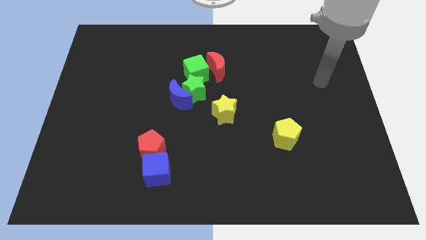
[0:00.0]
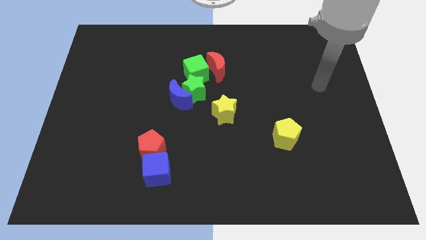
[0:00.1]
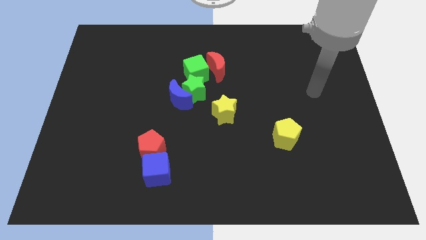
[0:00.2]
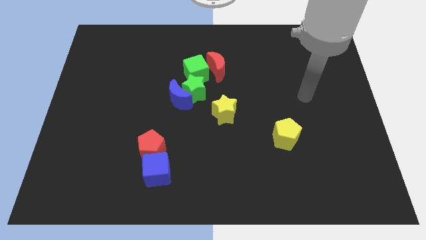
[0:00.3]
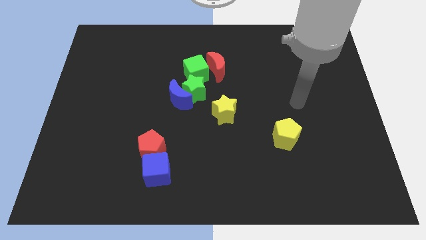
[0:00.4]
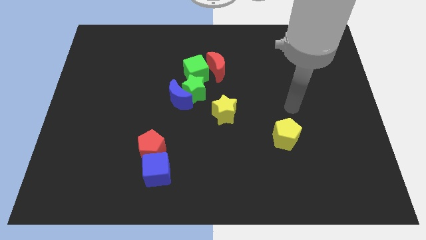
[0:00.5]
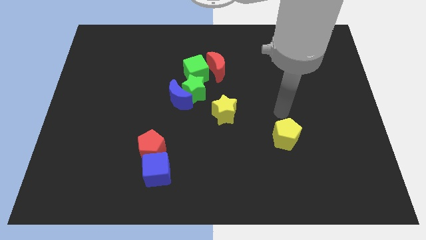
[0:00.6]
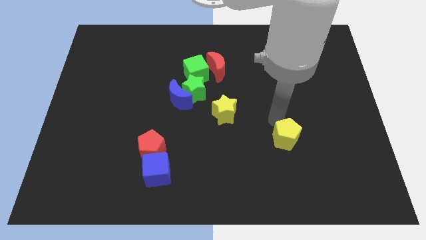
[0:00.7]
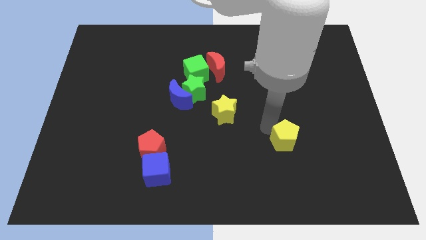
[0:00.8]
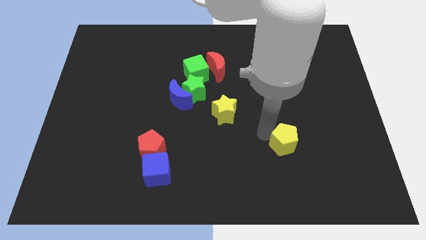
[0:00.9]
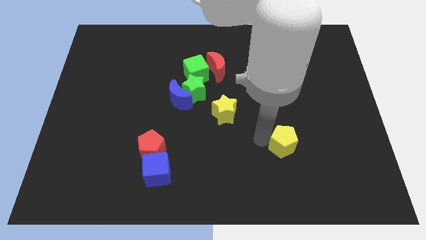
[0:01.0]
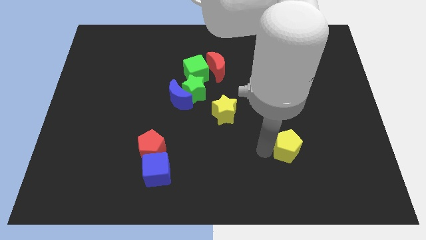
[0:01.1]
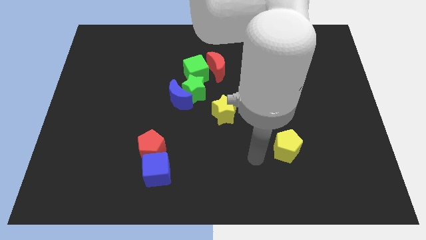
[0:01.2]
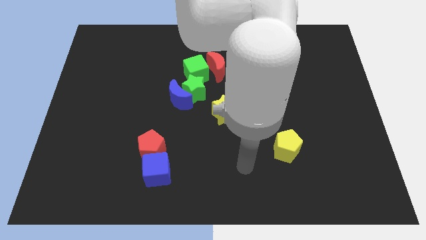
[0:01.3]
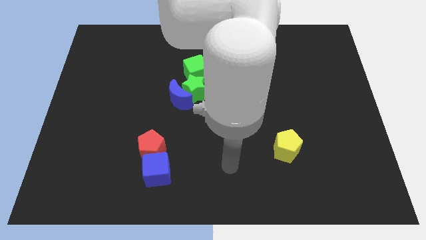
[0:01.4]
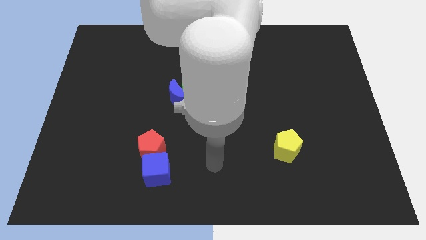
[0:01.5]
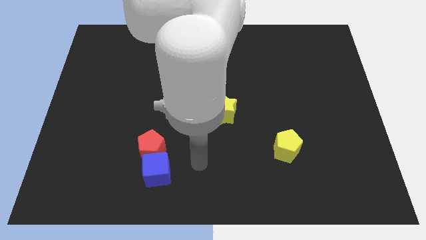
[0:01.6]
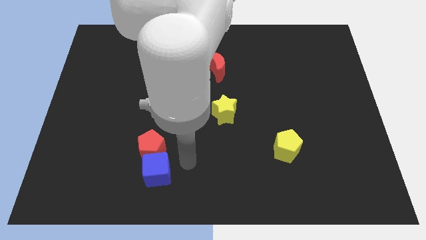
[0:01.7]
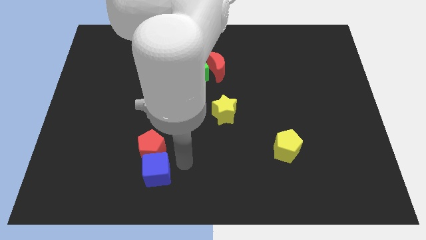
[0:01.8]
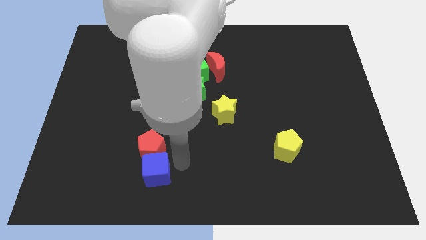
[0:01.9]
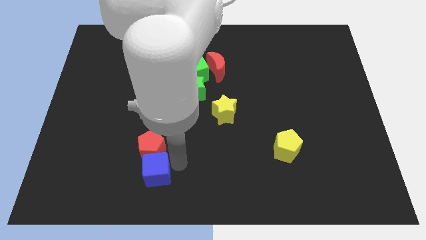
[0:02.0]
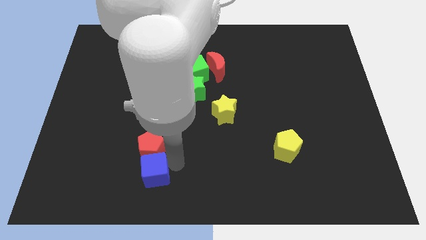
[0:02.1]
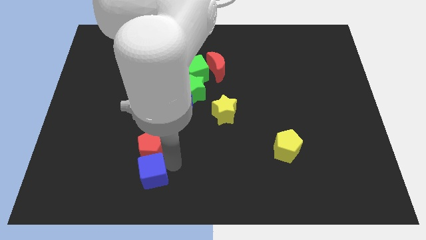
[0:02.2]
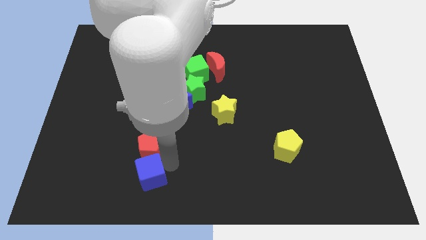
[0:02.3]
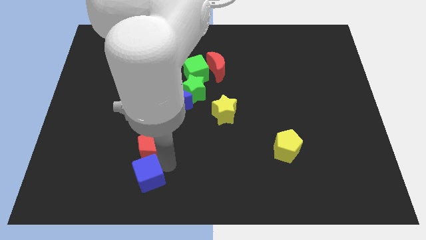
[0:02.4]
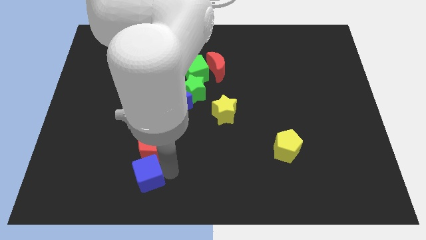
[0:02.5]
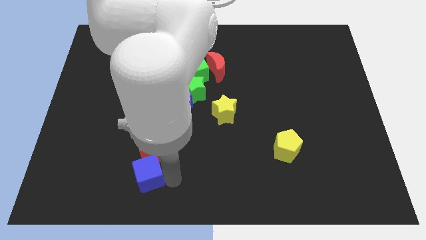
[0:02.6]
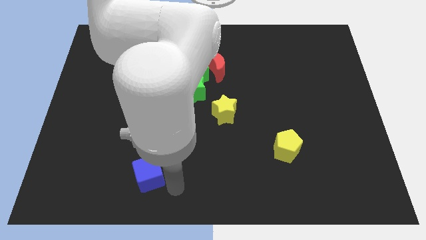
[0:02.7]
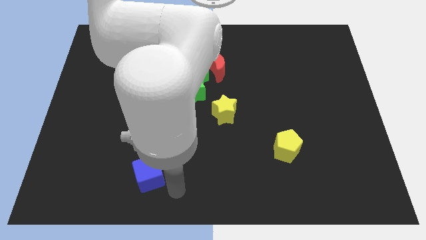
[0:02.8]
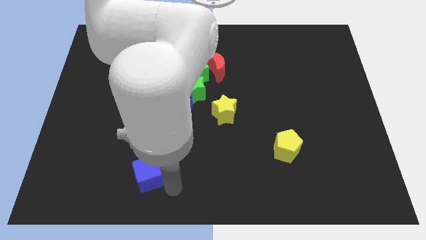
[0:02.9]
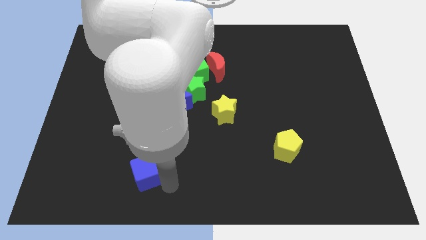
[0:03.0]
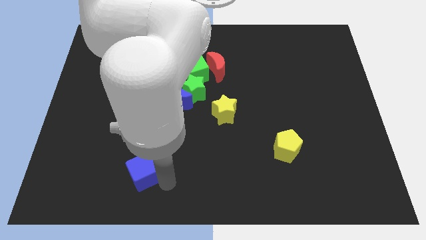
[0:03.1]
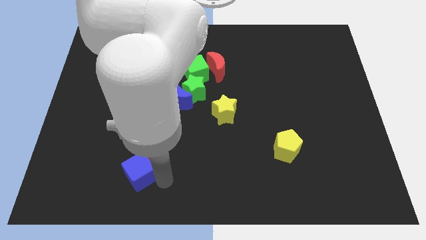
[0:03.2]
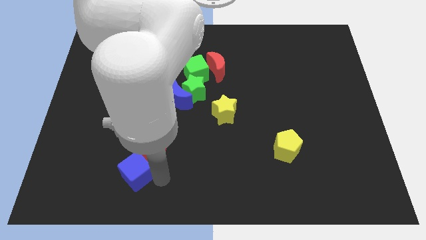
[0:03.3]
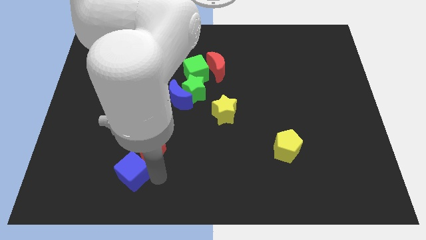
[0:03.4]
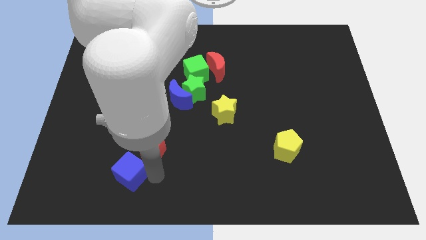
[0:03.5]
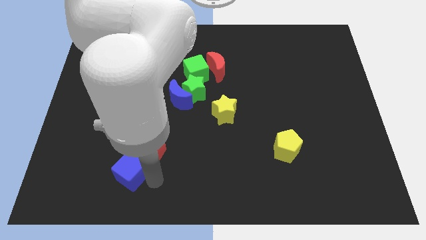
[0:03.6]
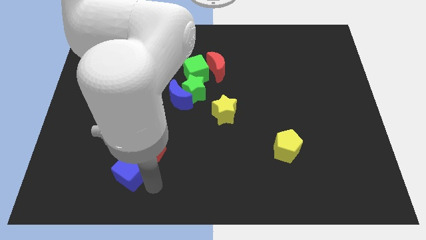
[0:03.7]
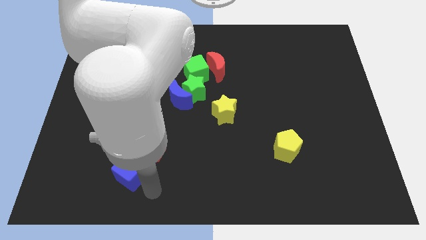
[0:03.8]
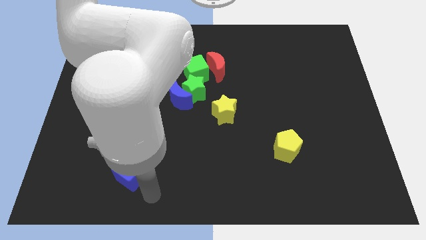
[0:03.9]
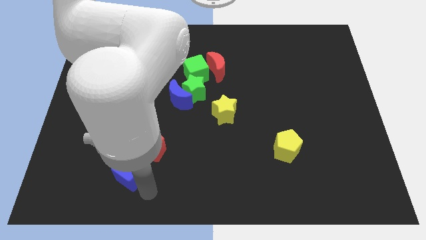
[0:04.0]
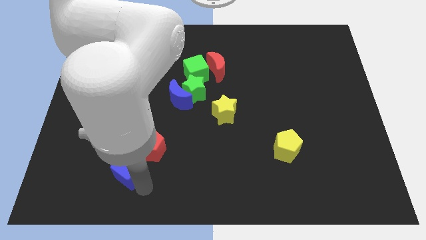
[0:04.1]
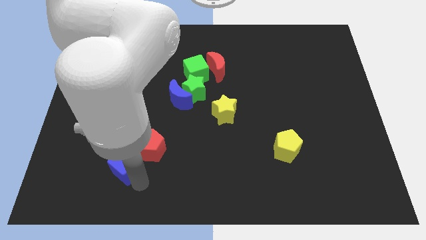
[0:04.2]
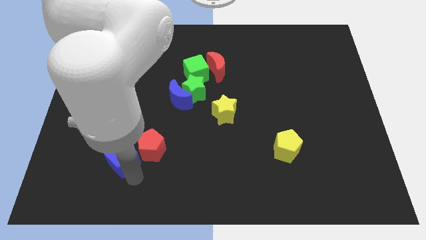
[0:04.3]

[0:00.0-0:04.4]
slightly move the blue cube diagonally upwards and left

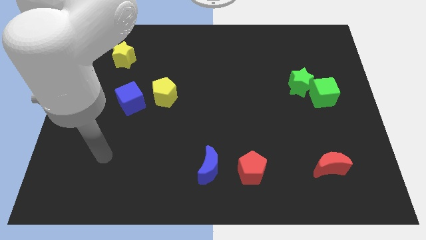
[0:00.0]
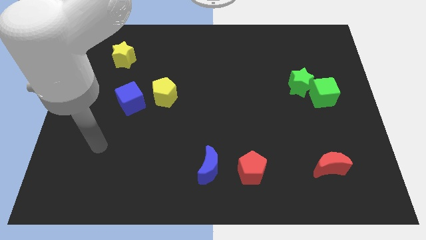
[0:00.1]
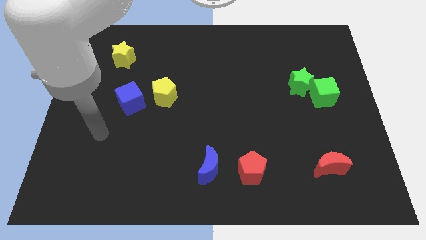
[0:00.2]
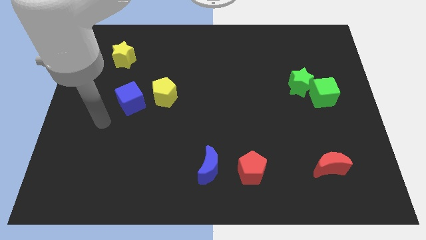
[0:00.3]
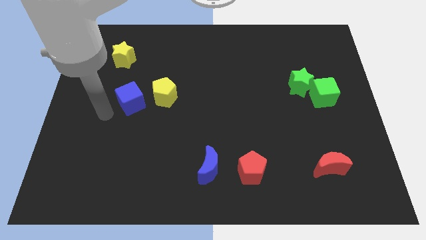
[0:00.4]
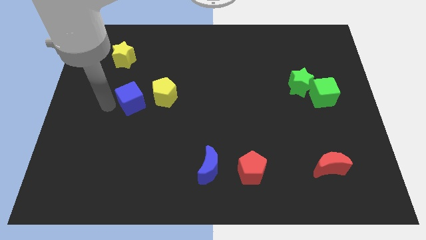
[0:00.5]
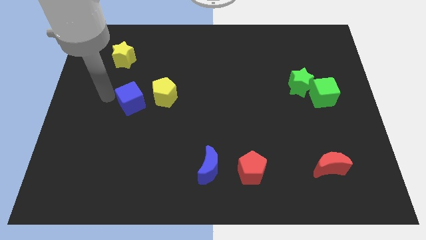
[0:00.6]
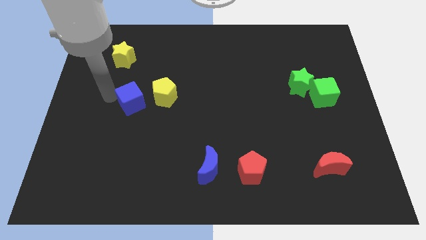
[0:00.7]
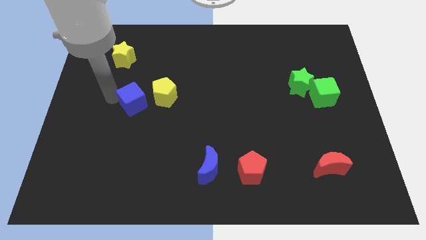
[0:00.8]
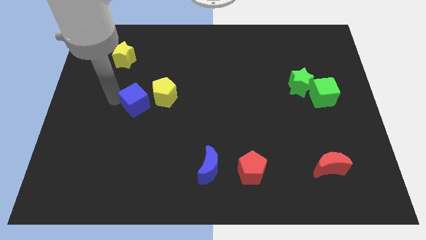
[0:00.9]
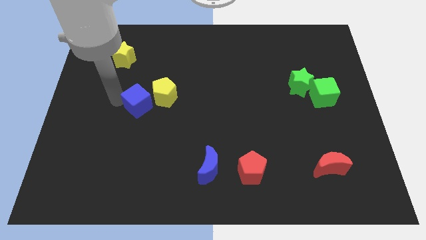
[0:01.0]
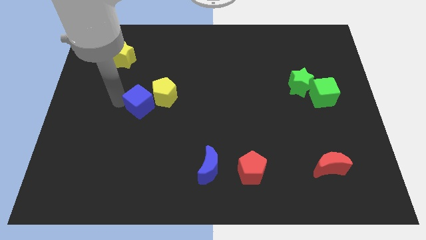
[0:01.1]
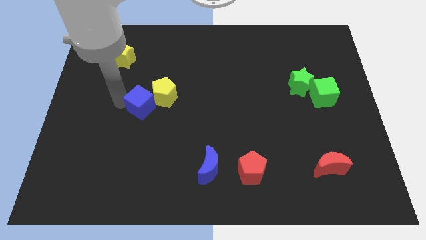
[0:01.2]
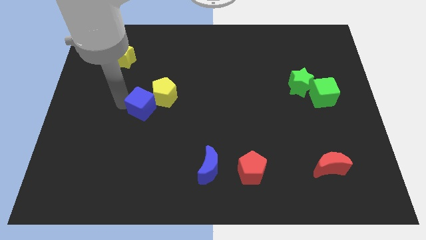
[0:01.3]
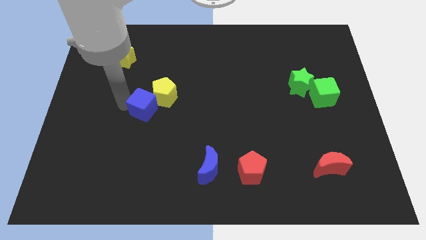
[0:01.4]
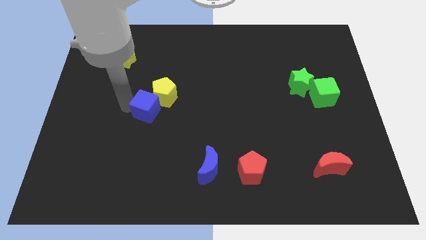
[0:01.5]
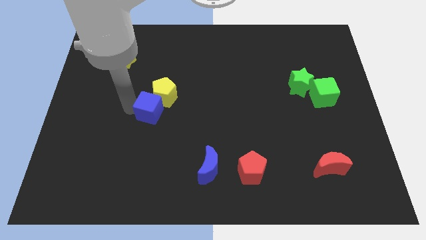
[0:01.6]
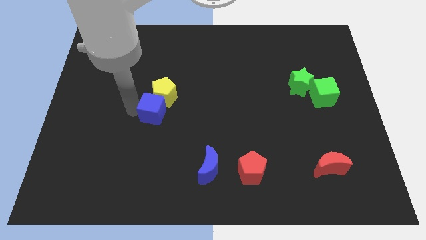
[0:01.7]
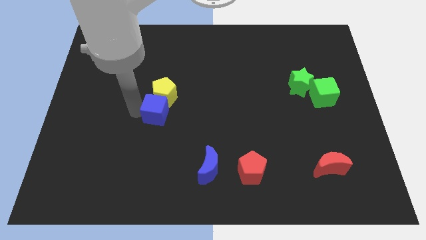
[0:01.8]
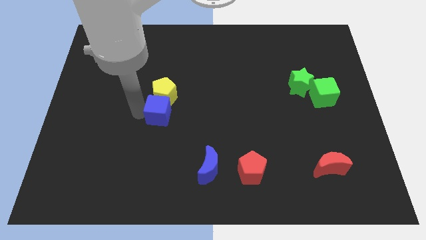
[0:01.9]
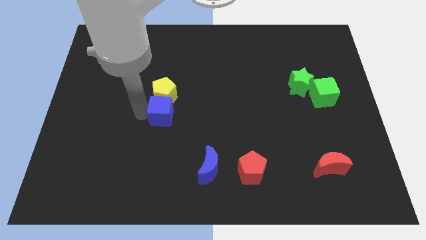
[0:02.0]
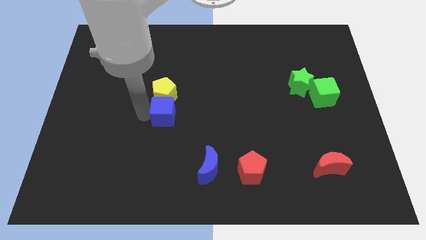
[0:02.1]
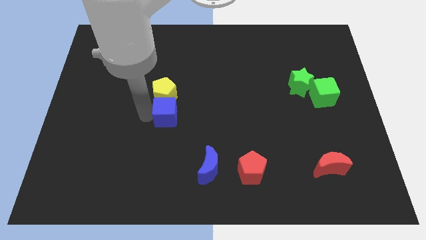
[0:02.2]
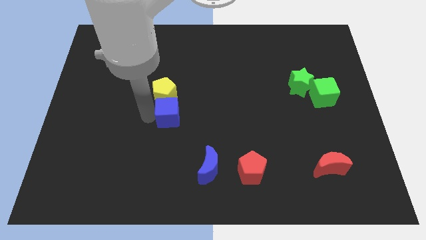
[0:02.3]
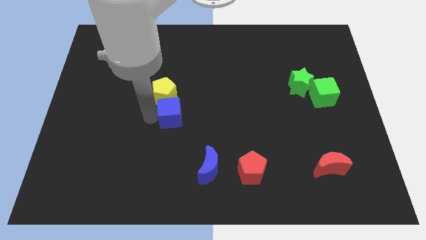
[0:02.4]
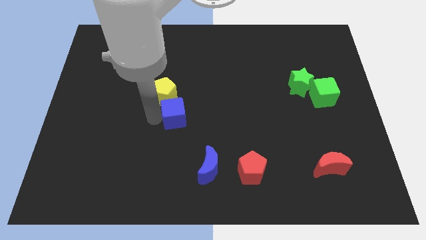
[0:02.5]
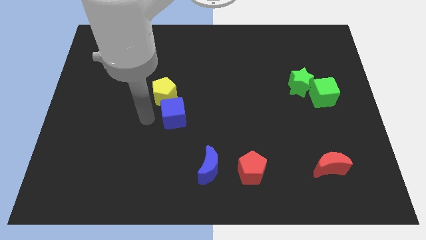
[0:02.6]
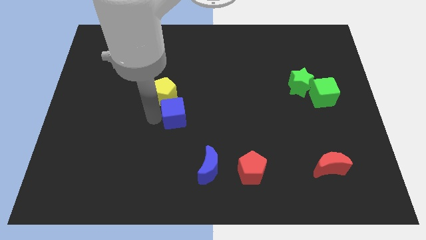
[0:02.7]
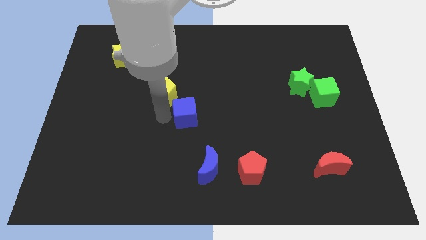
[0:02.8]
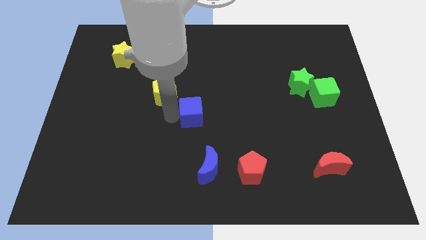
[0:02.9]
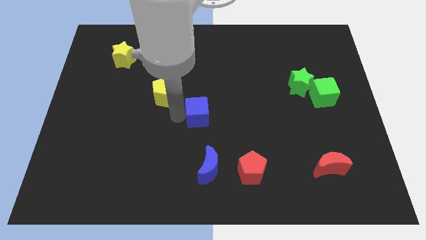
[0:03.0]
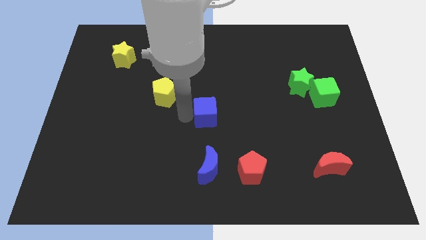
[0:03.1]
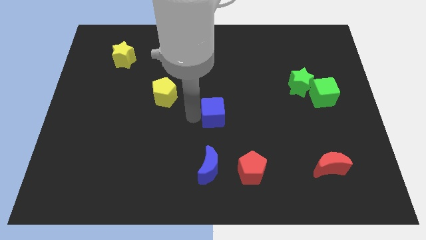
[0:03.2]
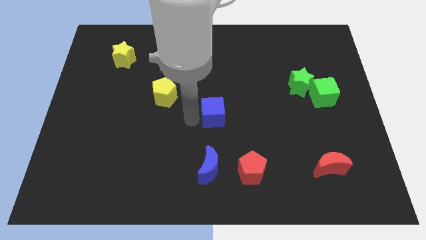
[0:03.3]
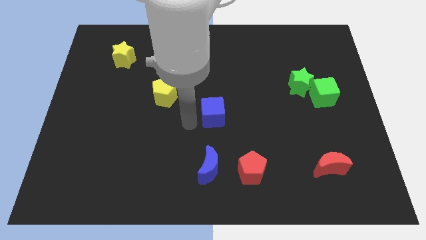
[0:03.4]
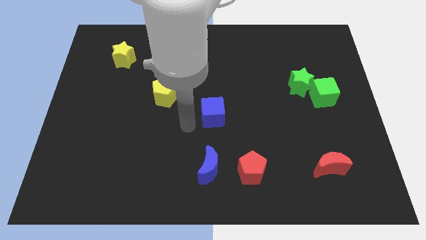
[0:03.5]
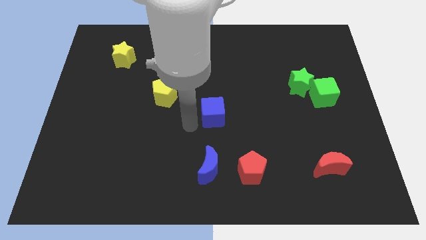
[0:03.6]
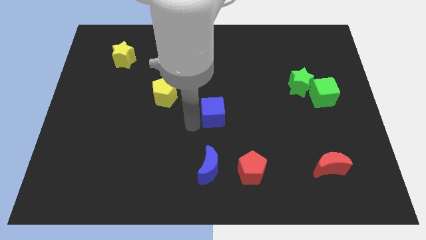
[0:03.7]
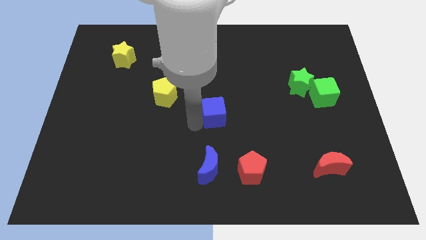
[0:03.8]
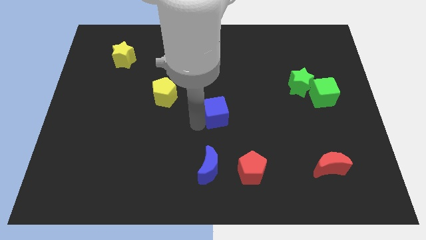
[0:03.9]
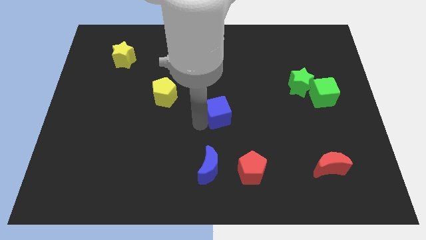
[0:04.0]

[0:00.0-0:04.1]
push the blue cube to the right

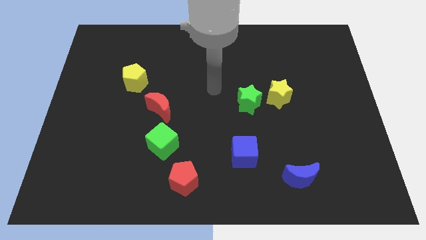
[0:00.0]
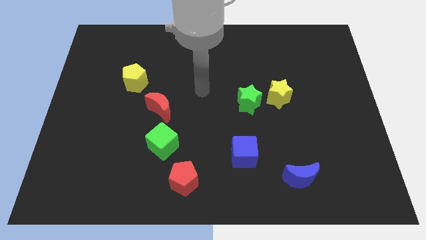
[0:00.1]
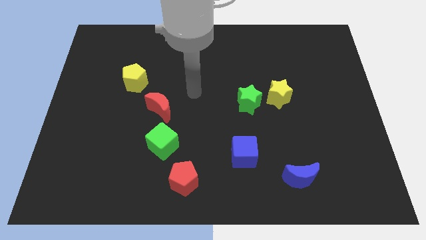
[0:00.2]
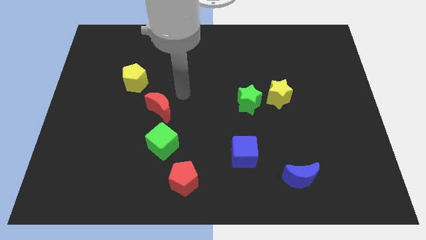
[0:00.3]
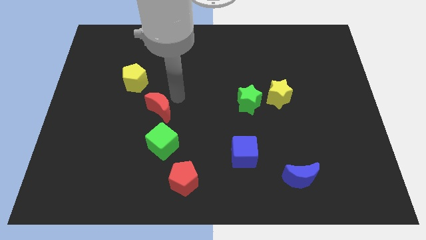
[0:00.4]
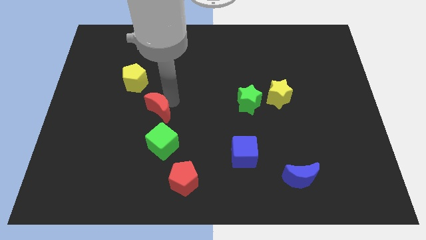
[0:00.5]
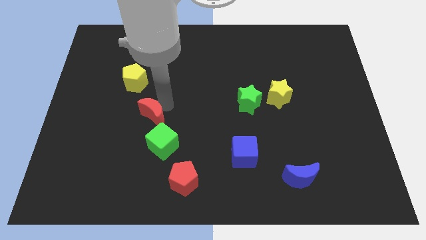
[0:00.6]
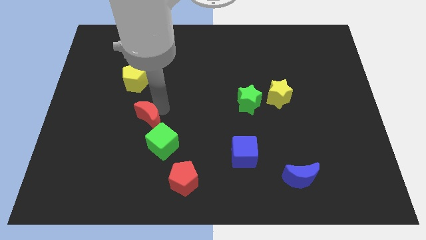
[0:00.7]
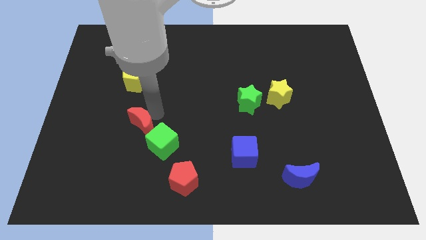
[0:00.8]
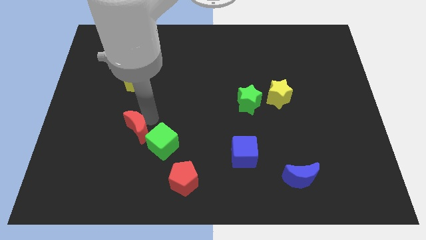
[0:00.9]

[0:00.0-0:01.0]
slide the red moon down and to the left diagonally somewhat
